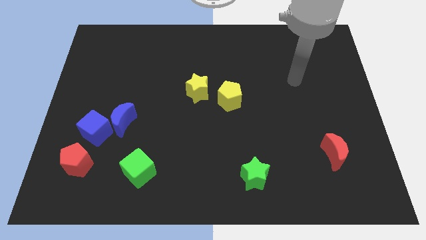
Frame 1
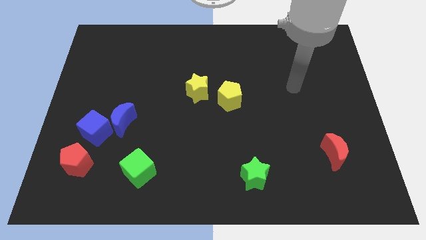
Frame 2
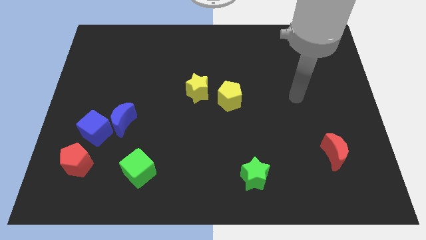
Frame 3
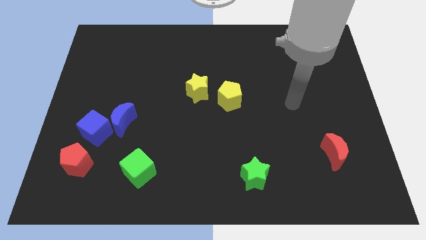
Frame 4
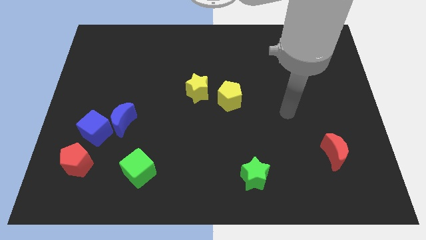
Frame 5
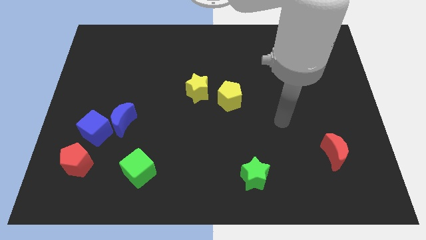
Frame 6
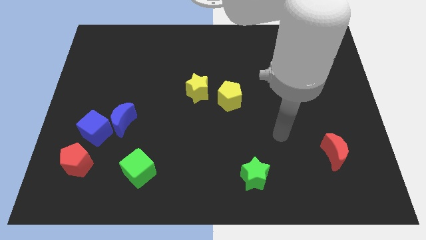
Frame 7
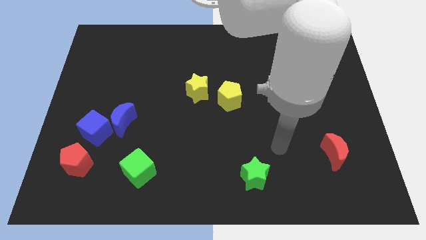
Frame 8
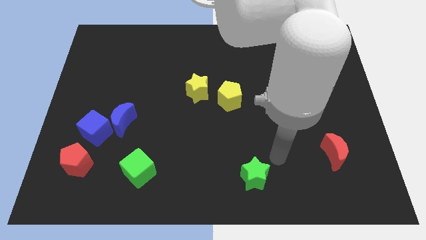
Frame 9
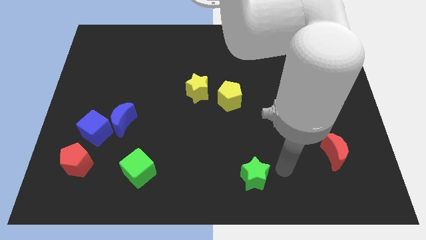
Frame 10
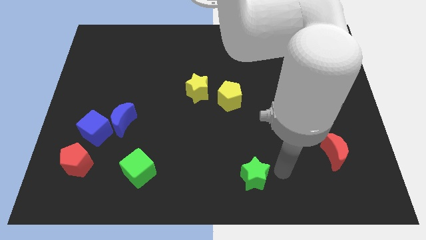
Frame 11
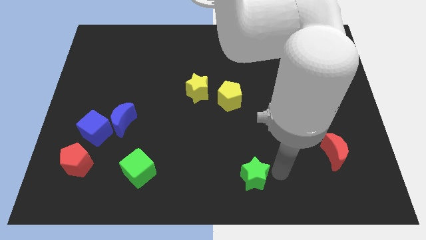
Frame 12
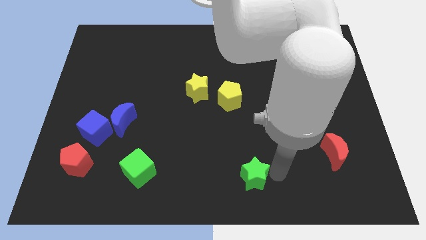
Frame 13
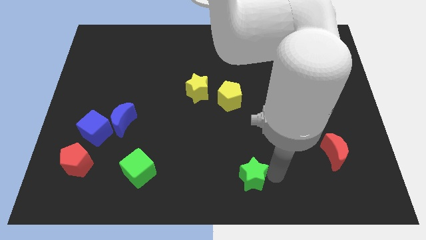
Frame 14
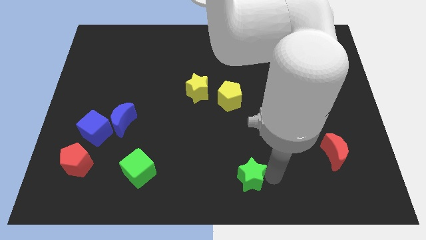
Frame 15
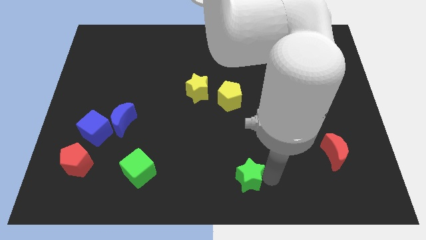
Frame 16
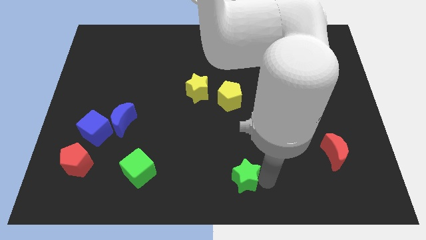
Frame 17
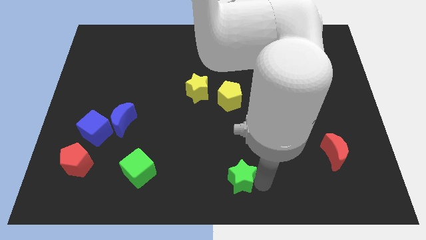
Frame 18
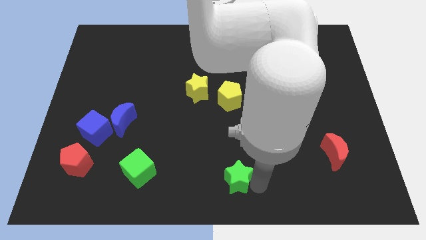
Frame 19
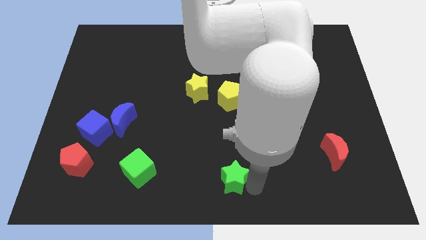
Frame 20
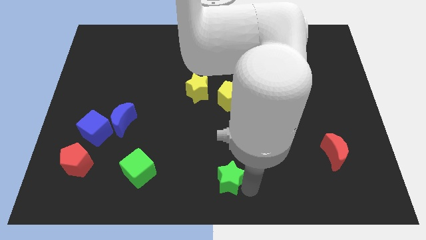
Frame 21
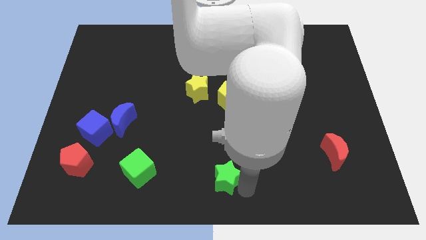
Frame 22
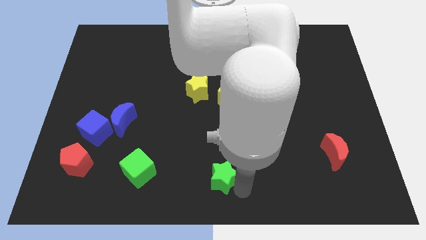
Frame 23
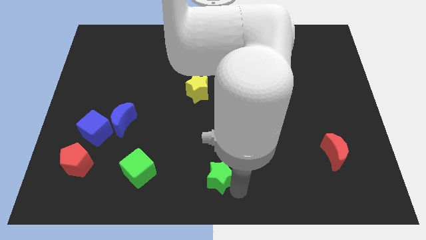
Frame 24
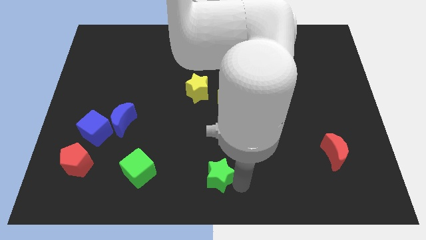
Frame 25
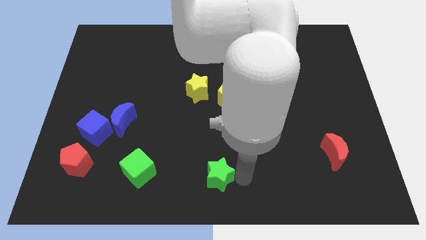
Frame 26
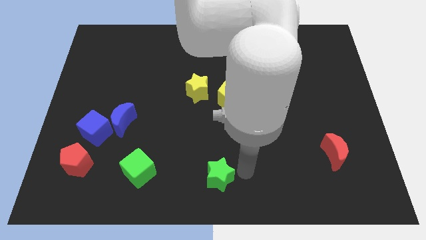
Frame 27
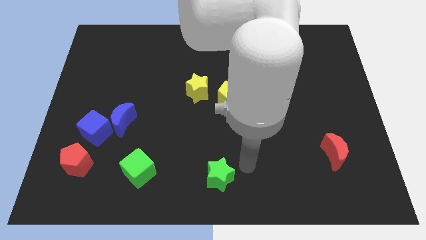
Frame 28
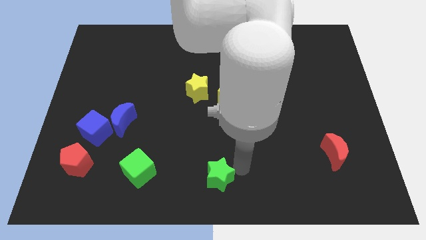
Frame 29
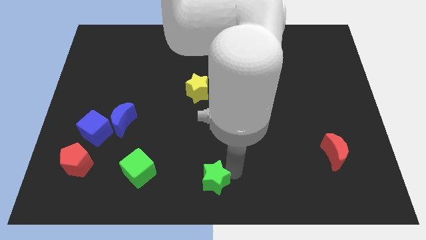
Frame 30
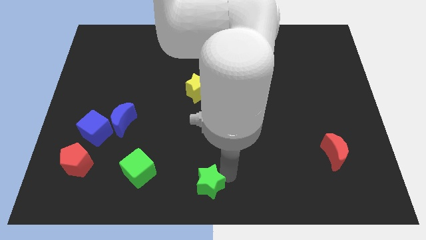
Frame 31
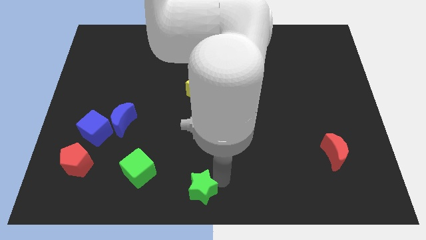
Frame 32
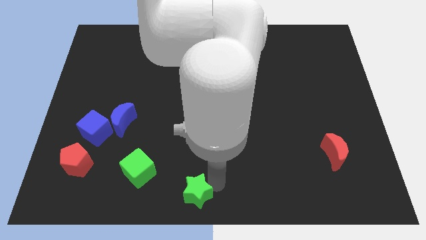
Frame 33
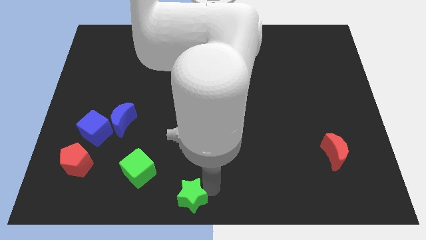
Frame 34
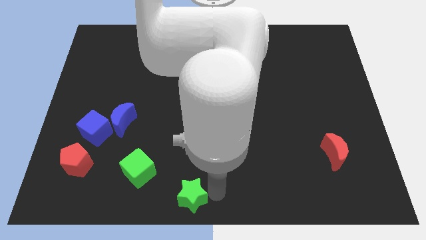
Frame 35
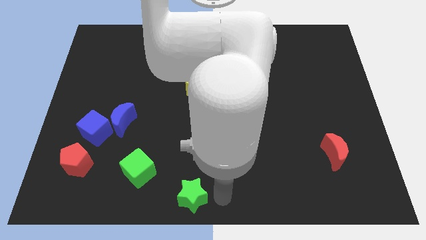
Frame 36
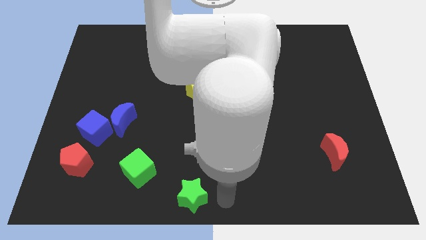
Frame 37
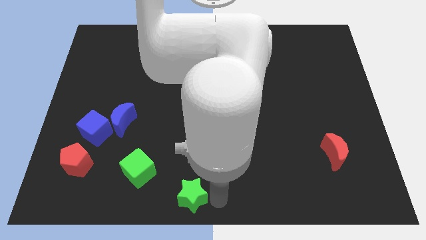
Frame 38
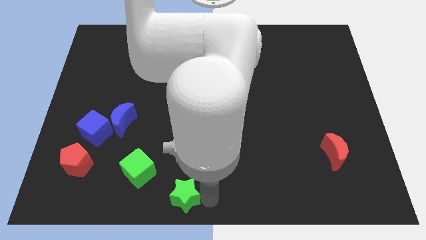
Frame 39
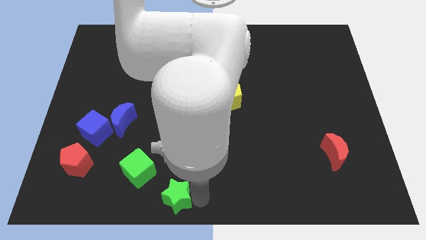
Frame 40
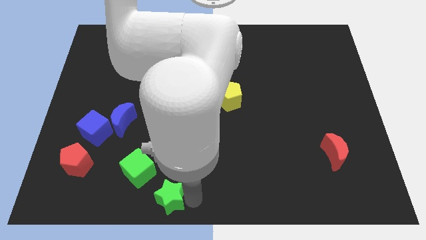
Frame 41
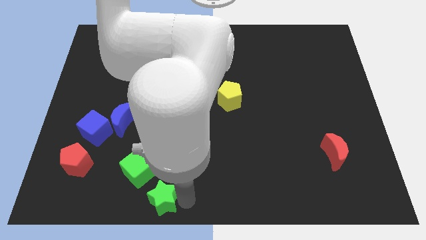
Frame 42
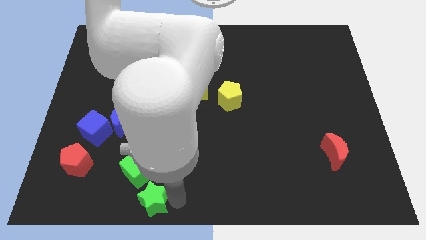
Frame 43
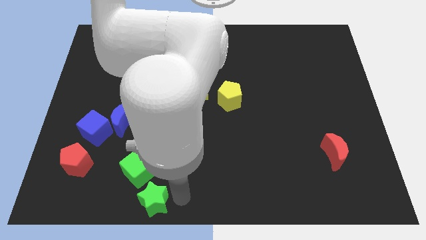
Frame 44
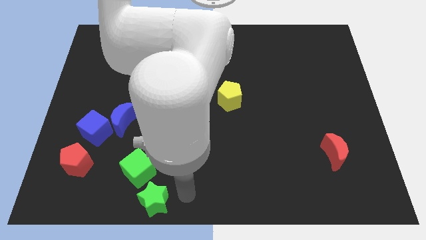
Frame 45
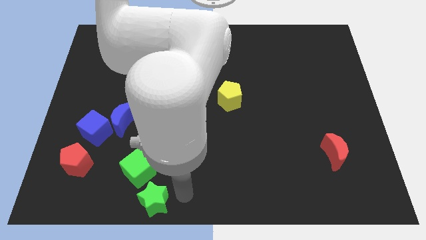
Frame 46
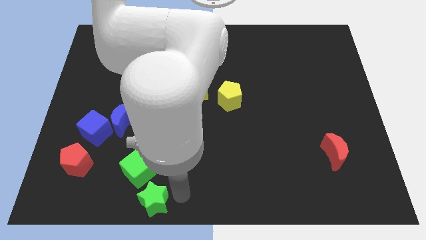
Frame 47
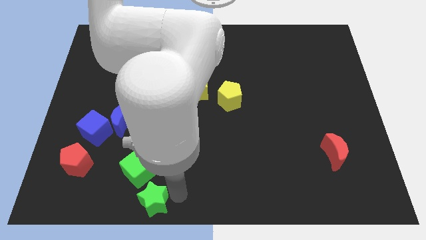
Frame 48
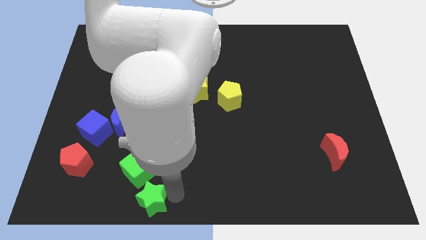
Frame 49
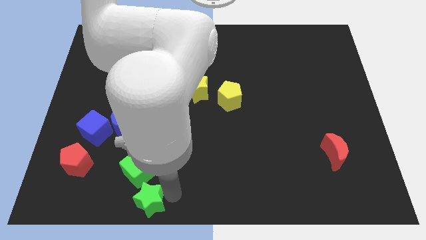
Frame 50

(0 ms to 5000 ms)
slide the green star to the left

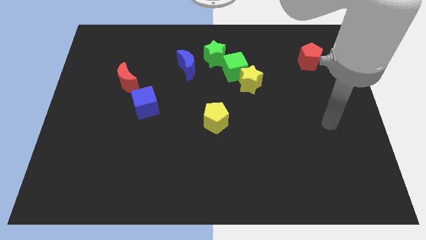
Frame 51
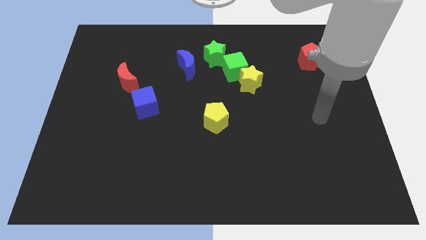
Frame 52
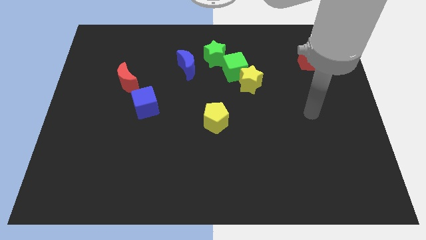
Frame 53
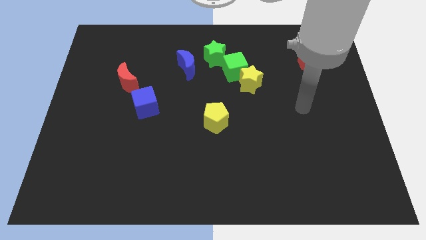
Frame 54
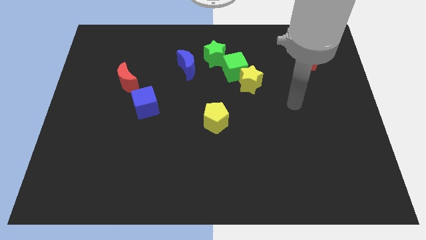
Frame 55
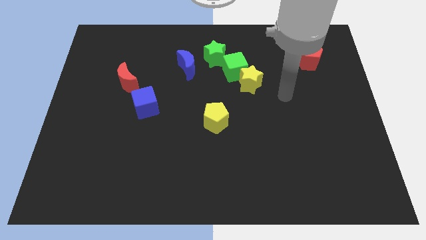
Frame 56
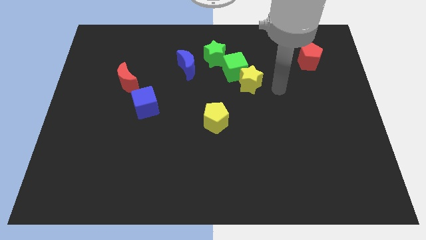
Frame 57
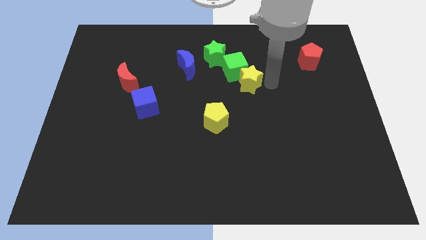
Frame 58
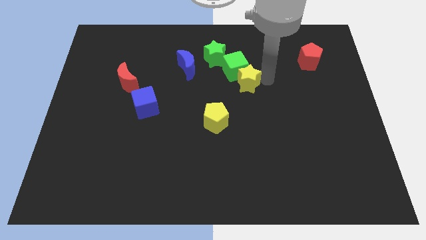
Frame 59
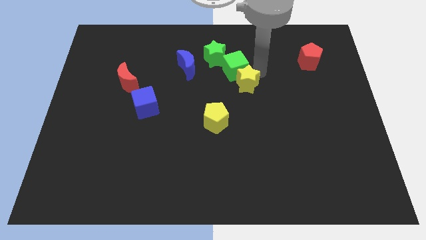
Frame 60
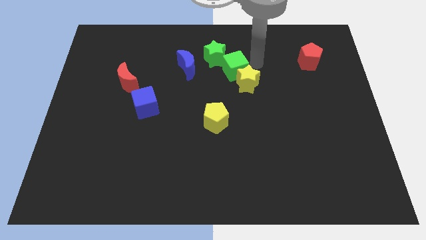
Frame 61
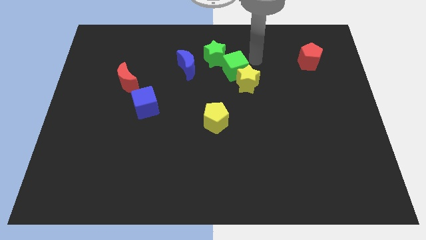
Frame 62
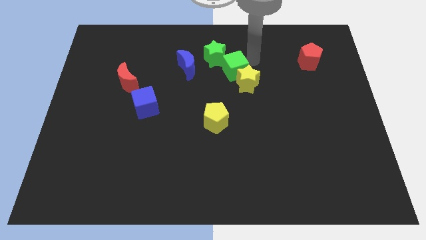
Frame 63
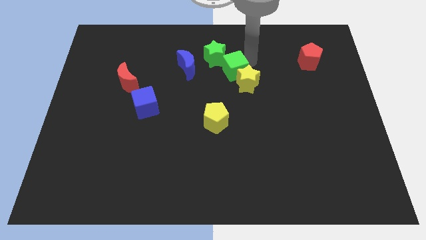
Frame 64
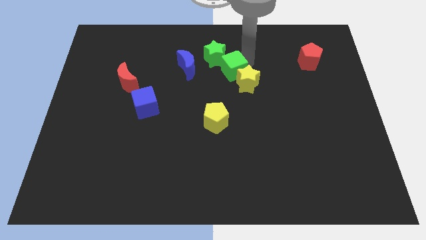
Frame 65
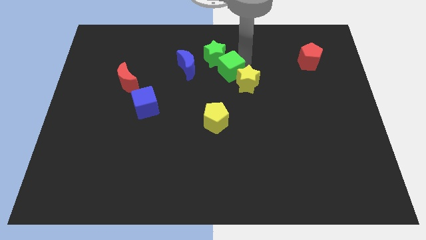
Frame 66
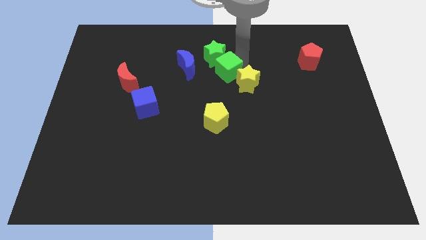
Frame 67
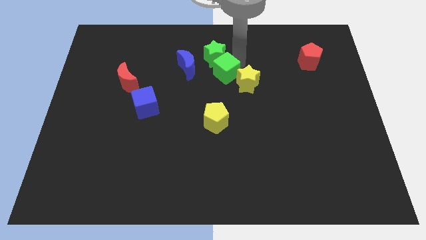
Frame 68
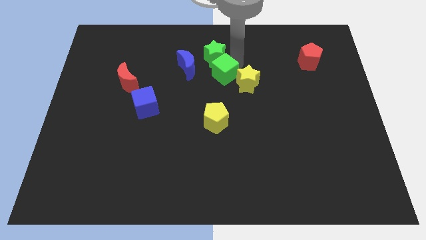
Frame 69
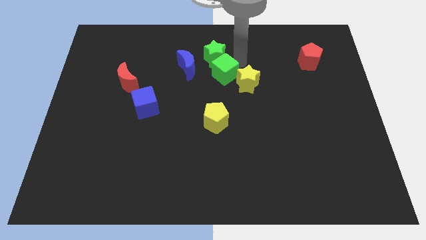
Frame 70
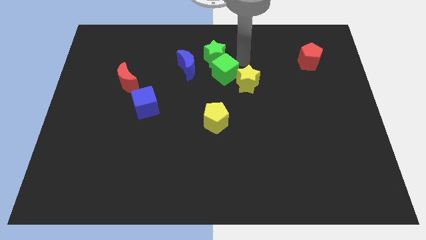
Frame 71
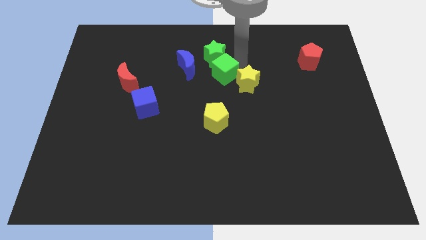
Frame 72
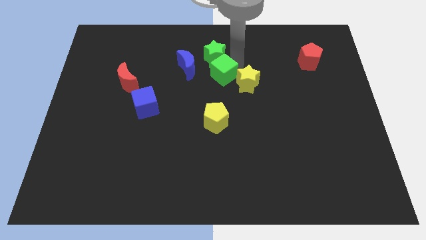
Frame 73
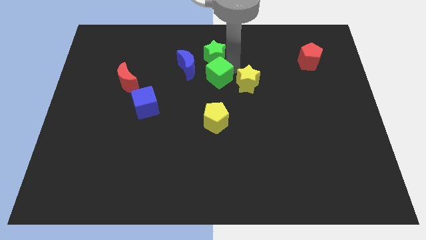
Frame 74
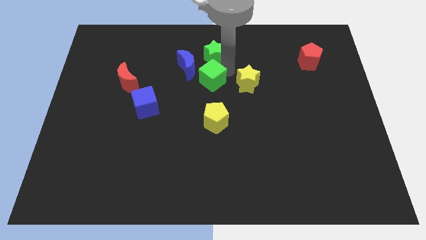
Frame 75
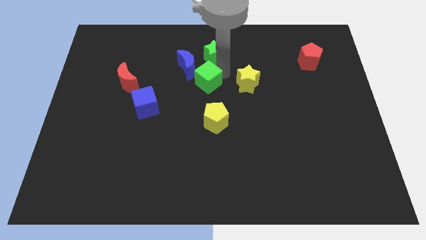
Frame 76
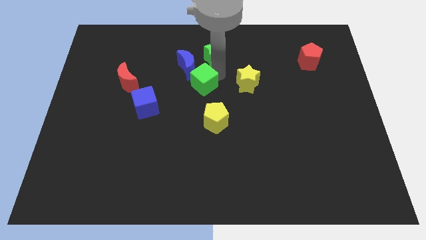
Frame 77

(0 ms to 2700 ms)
slightly slide the green cube left

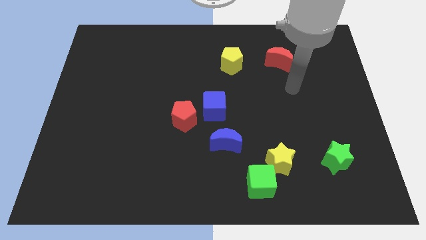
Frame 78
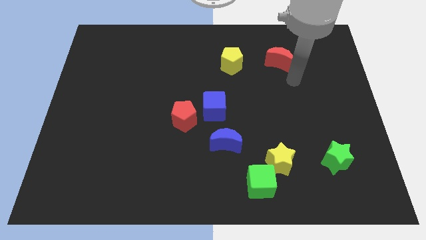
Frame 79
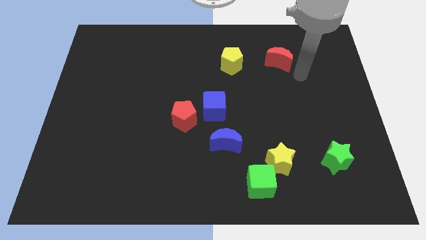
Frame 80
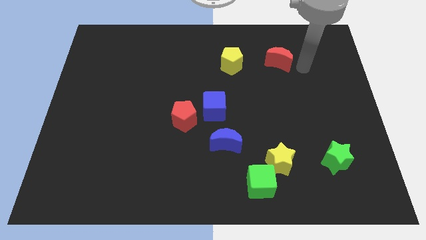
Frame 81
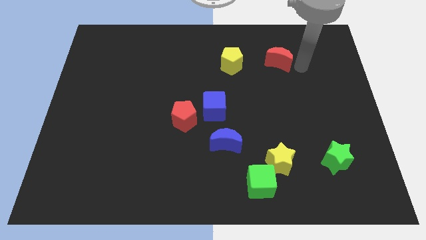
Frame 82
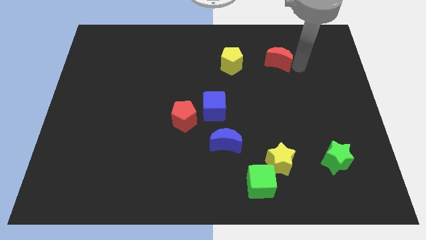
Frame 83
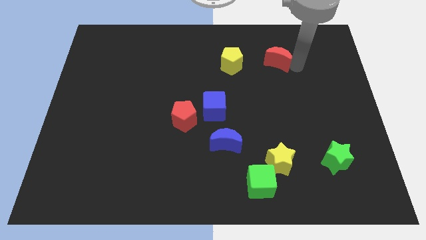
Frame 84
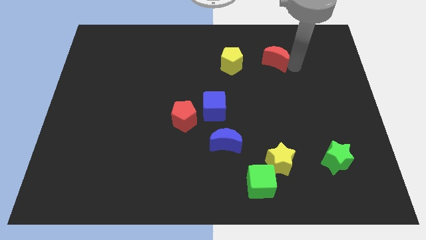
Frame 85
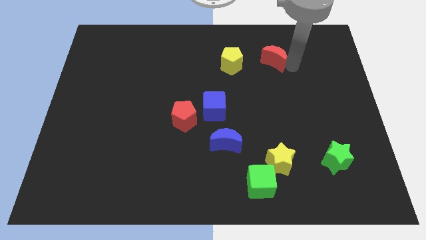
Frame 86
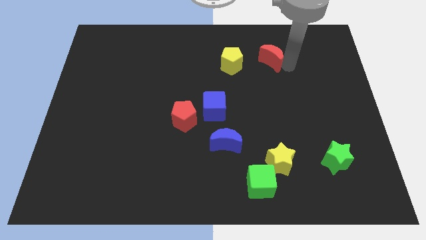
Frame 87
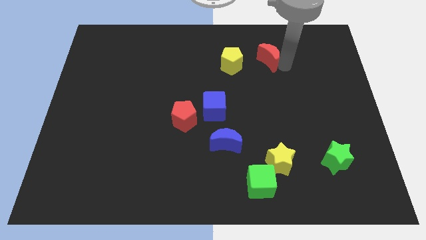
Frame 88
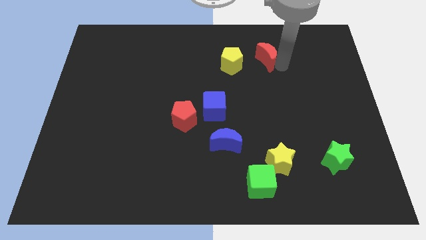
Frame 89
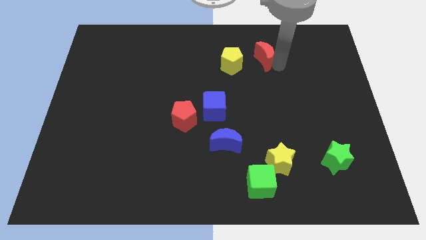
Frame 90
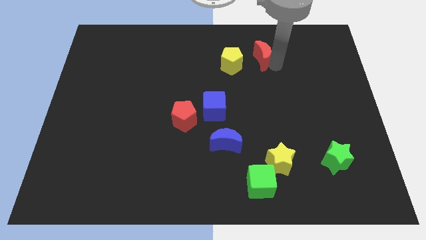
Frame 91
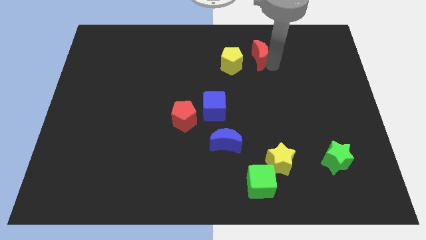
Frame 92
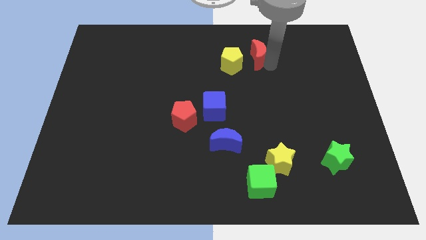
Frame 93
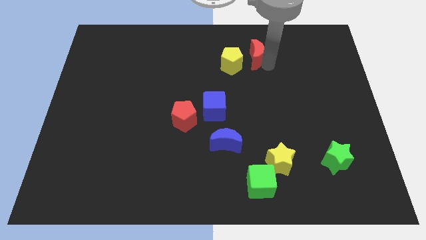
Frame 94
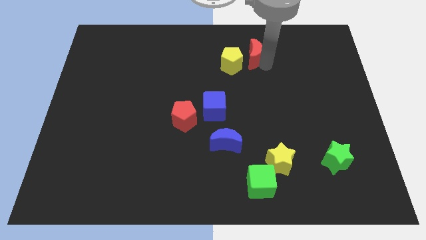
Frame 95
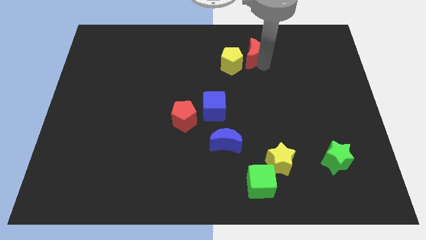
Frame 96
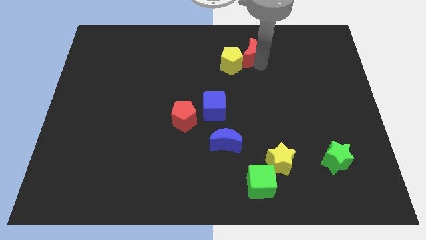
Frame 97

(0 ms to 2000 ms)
push the red moon left somewhat
